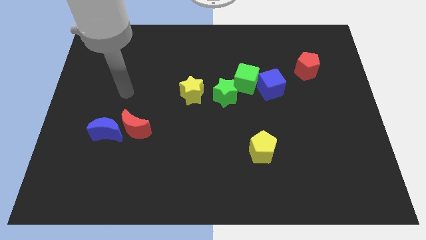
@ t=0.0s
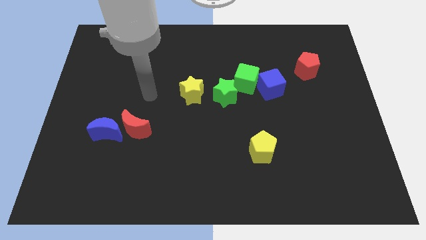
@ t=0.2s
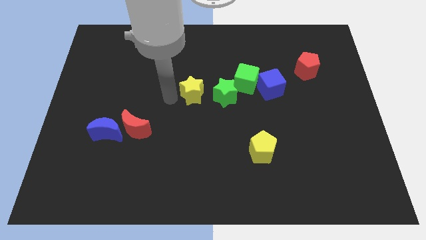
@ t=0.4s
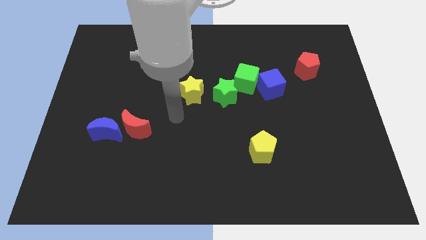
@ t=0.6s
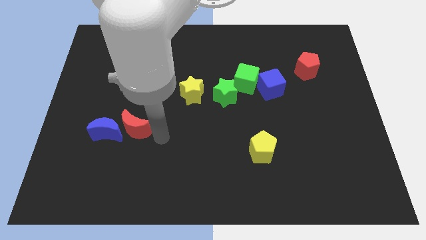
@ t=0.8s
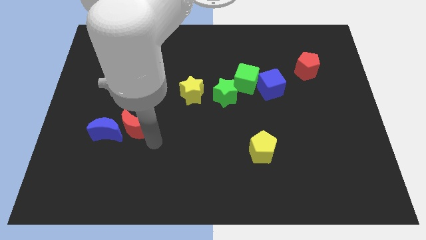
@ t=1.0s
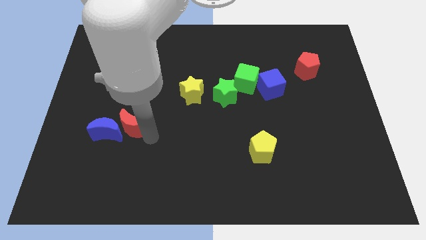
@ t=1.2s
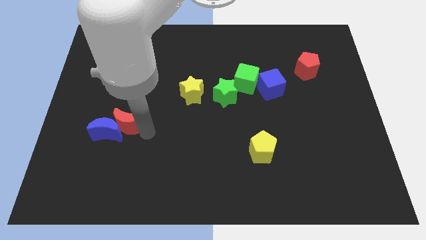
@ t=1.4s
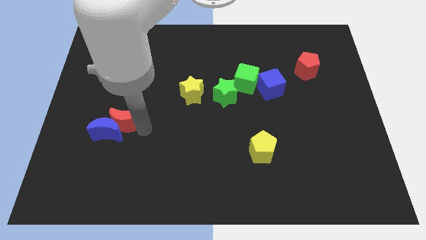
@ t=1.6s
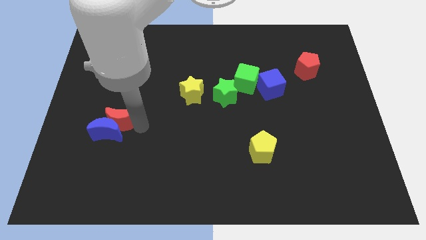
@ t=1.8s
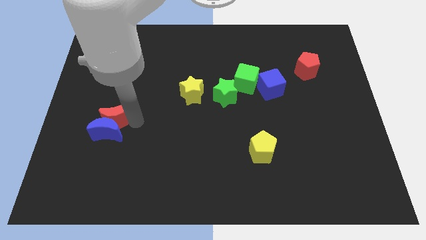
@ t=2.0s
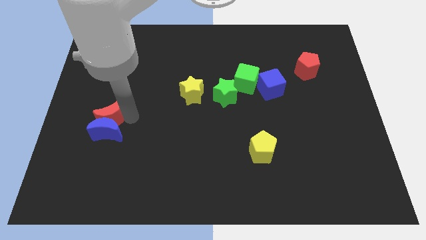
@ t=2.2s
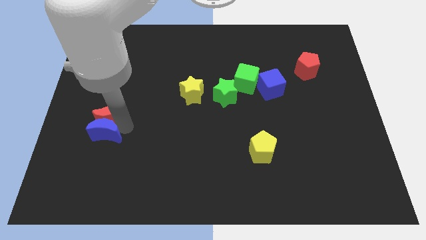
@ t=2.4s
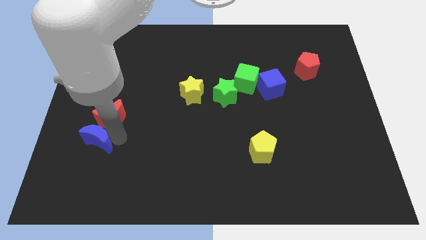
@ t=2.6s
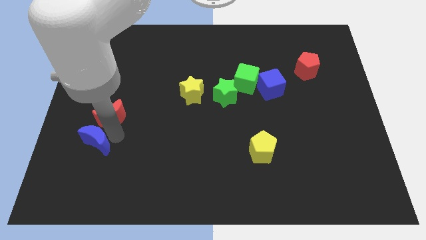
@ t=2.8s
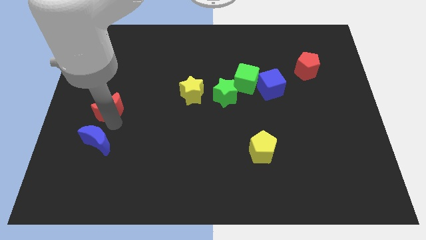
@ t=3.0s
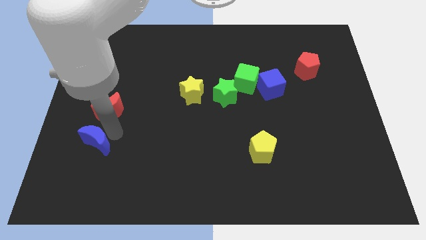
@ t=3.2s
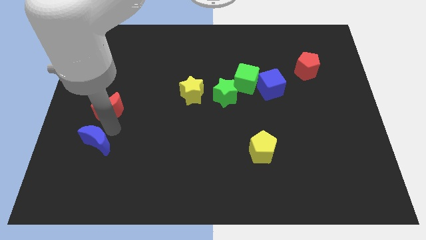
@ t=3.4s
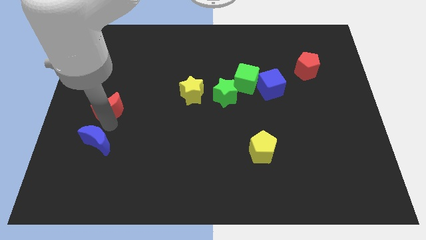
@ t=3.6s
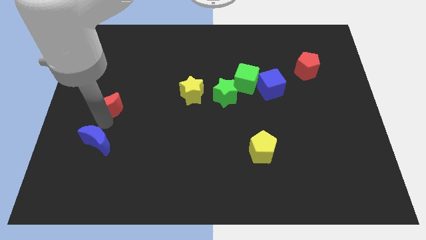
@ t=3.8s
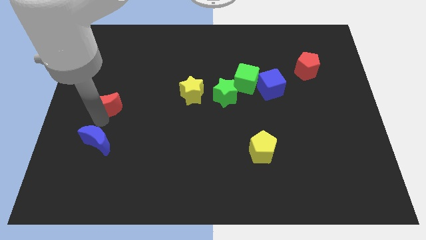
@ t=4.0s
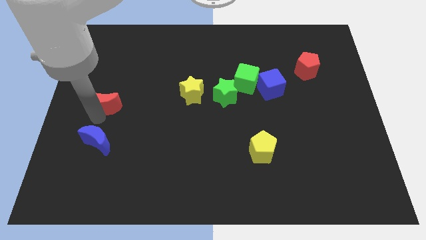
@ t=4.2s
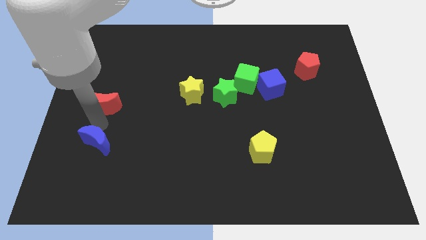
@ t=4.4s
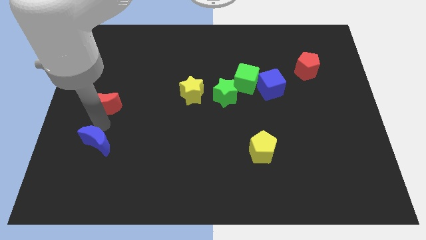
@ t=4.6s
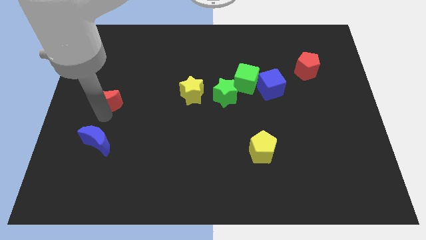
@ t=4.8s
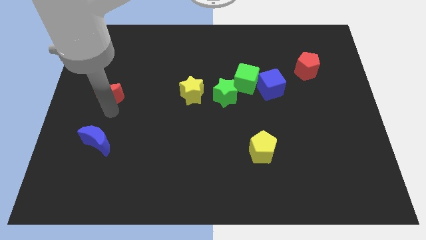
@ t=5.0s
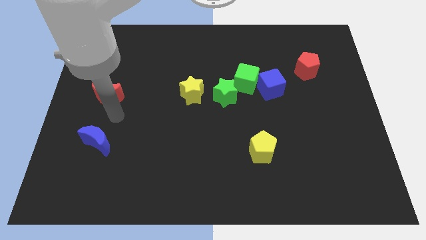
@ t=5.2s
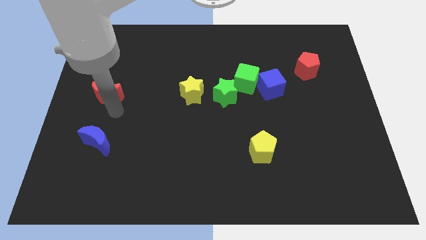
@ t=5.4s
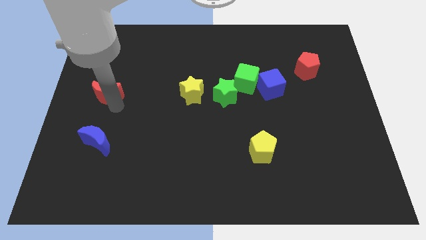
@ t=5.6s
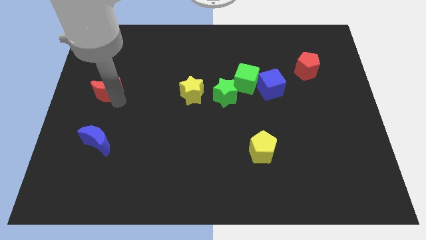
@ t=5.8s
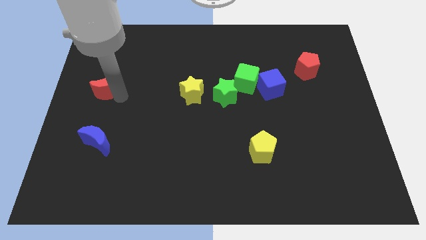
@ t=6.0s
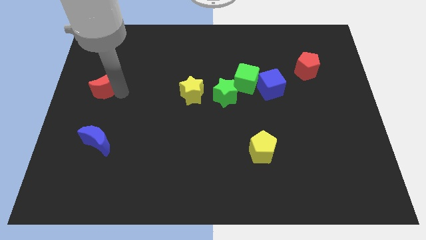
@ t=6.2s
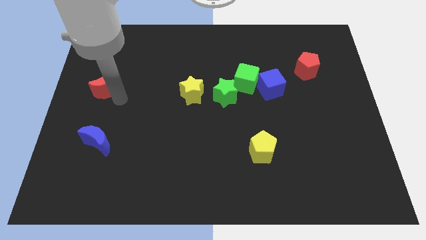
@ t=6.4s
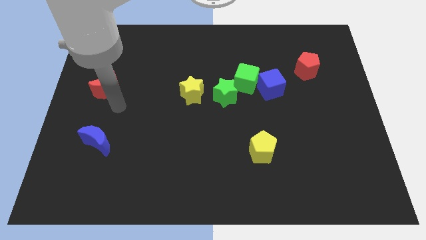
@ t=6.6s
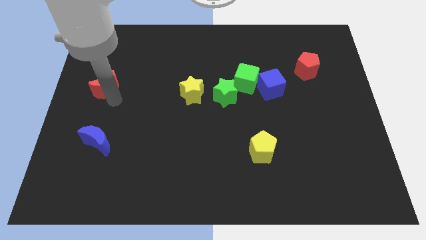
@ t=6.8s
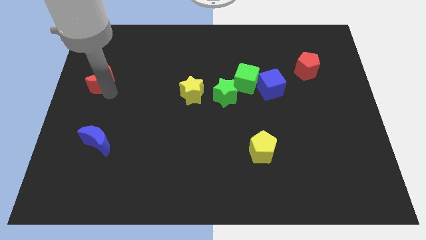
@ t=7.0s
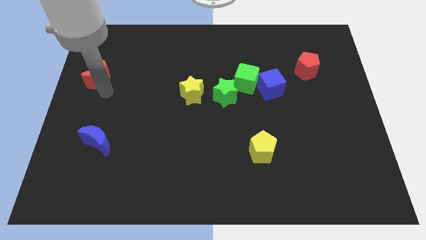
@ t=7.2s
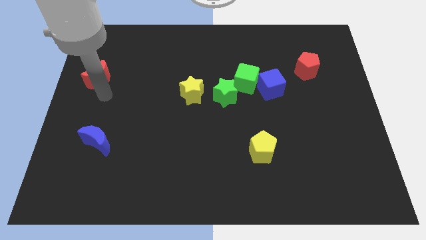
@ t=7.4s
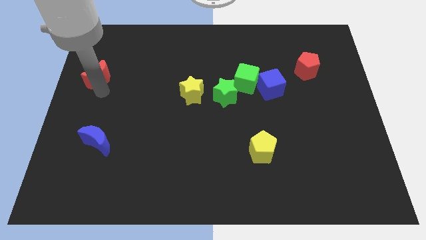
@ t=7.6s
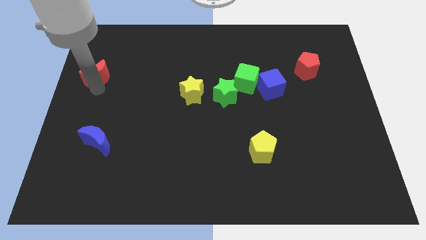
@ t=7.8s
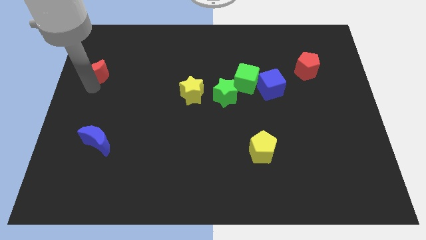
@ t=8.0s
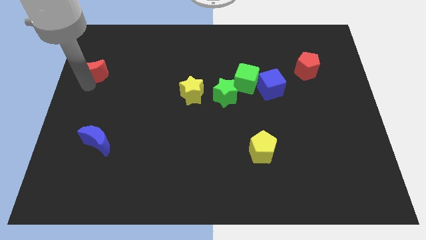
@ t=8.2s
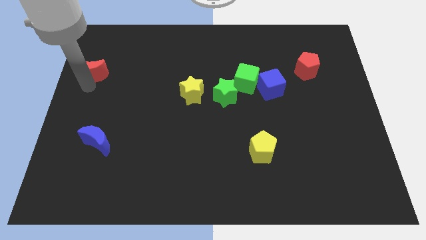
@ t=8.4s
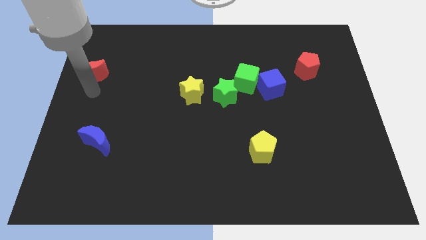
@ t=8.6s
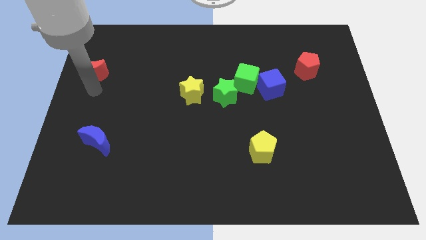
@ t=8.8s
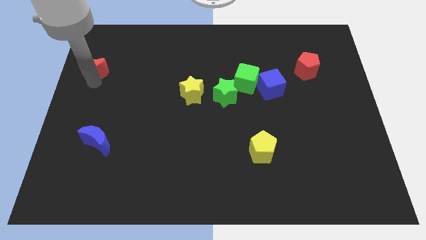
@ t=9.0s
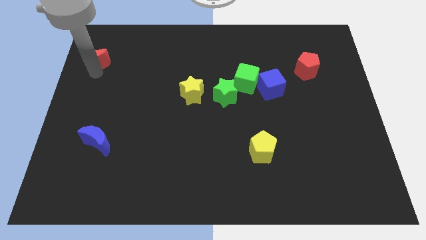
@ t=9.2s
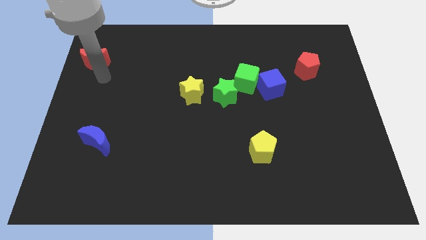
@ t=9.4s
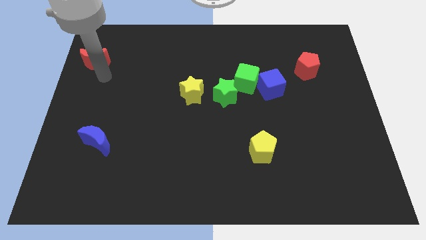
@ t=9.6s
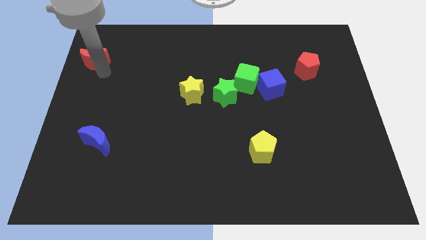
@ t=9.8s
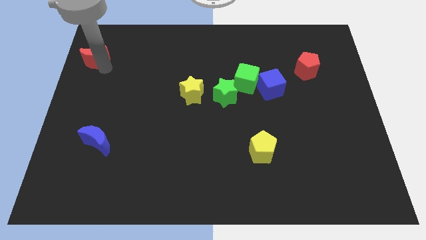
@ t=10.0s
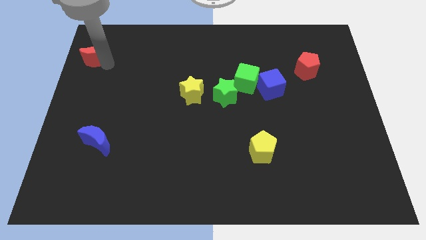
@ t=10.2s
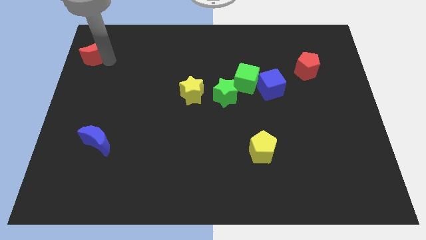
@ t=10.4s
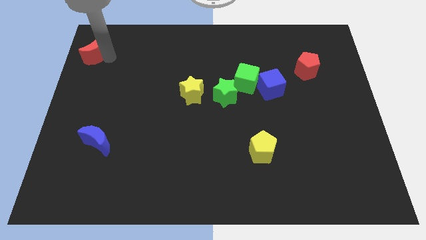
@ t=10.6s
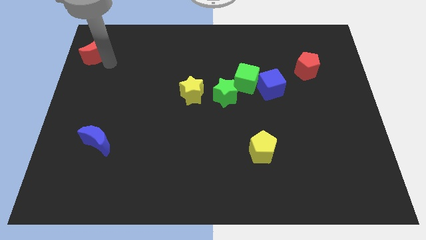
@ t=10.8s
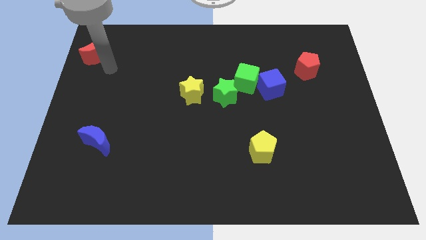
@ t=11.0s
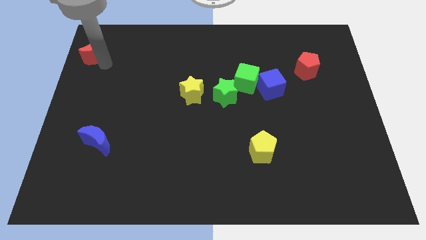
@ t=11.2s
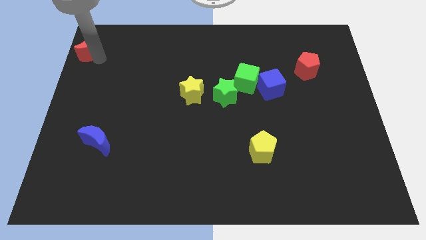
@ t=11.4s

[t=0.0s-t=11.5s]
push the red moon to the top left
